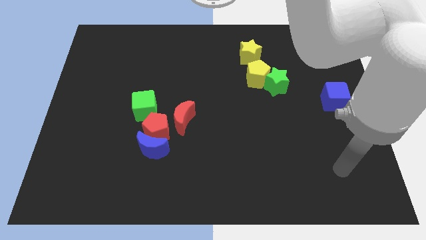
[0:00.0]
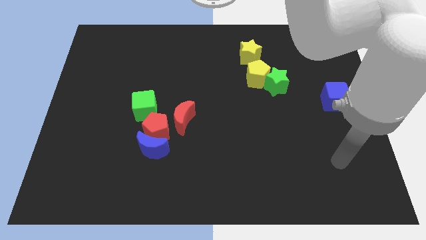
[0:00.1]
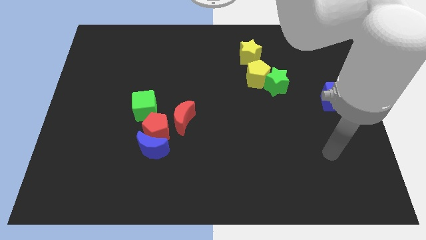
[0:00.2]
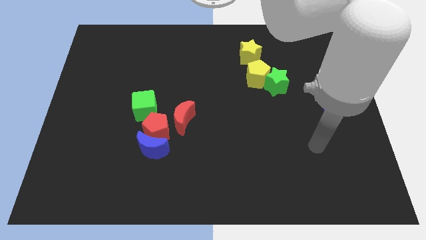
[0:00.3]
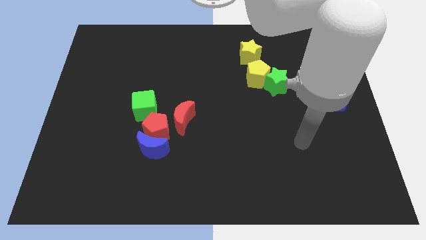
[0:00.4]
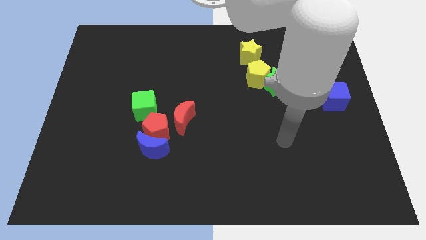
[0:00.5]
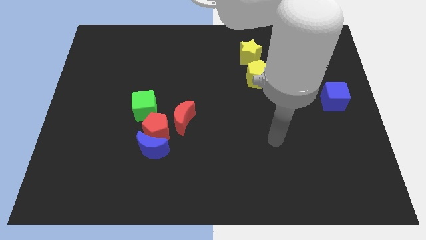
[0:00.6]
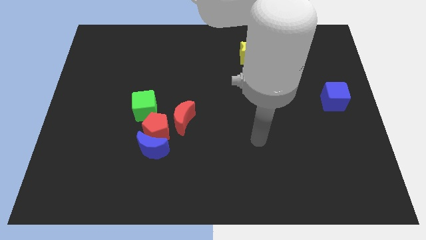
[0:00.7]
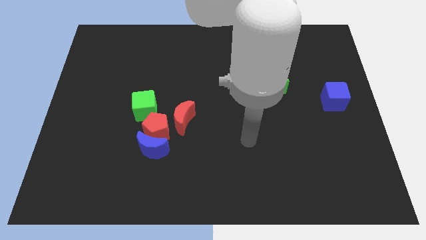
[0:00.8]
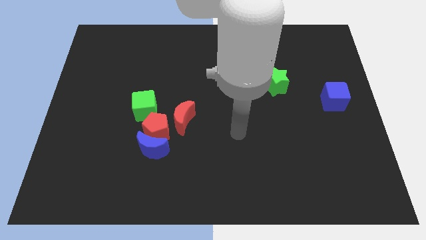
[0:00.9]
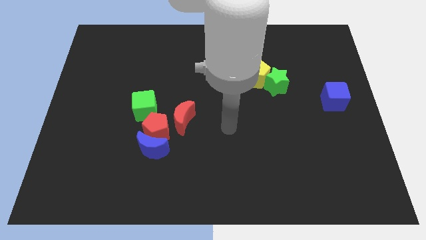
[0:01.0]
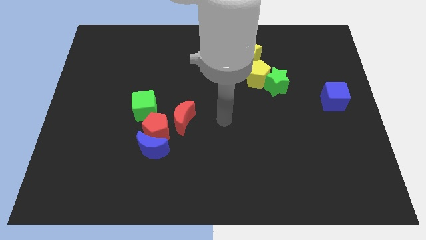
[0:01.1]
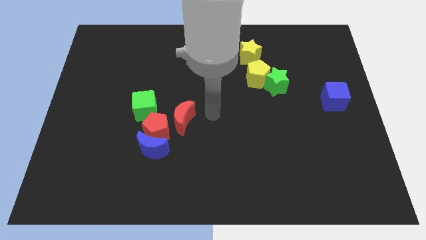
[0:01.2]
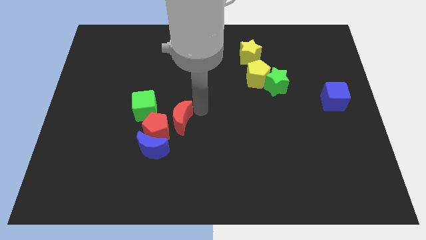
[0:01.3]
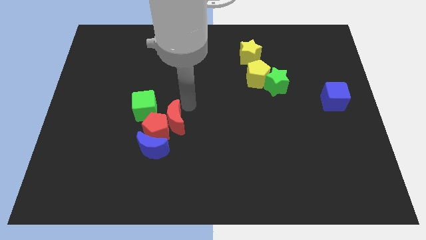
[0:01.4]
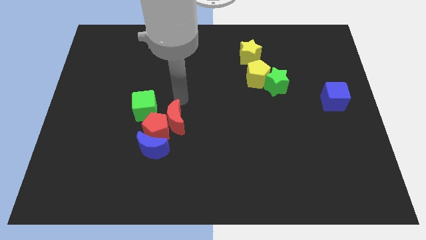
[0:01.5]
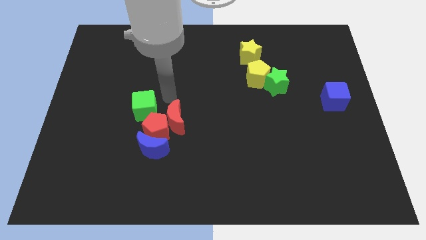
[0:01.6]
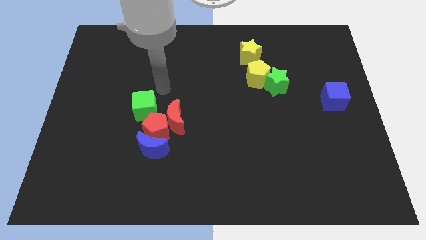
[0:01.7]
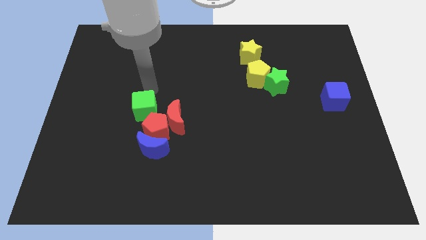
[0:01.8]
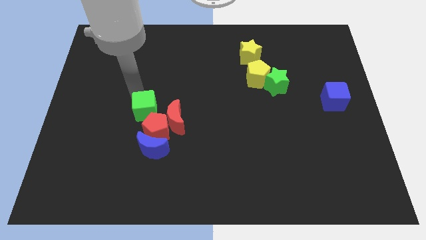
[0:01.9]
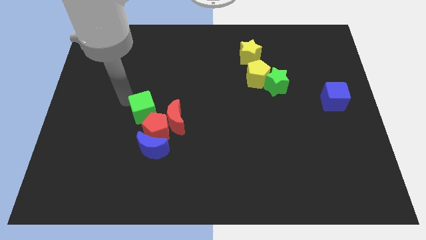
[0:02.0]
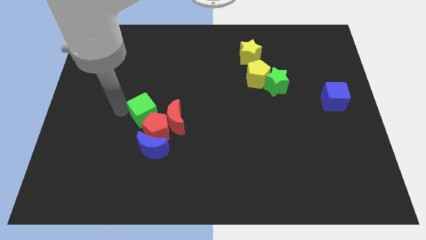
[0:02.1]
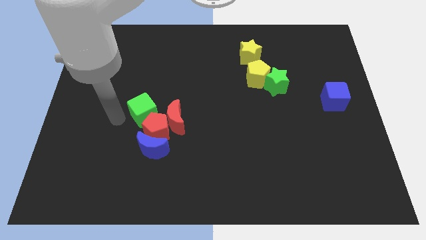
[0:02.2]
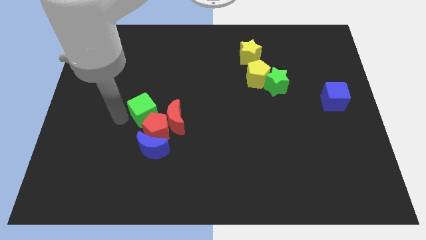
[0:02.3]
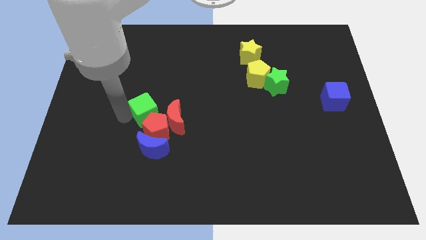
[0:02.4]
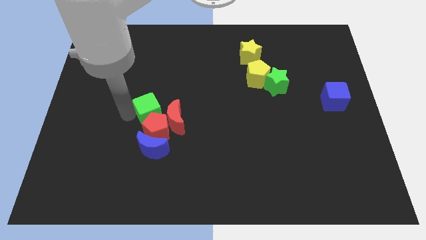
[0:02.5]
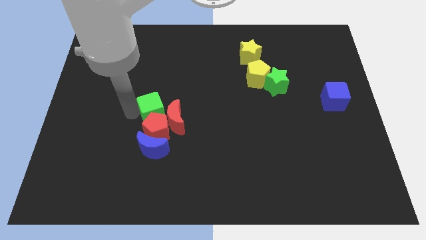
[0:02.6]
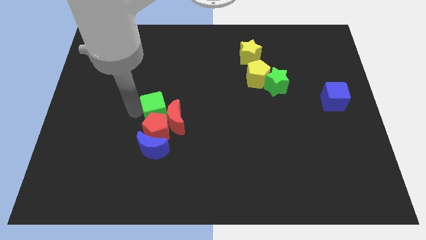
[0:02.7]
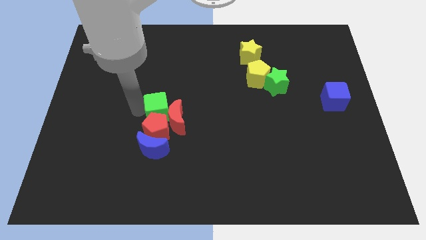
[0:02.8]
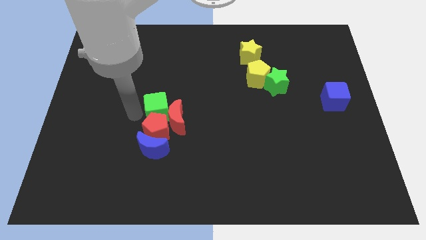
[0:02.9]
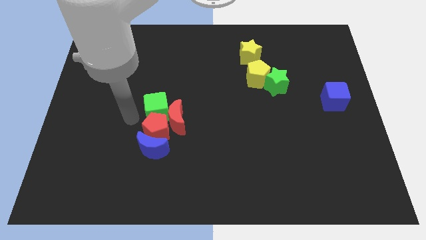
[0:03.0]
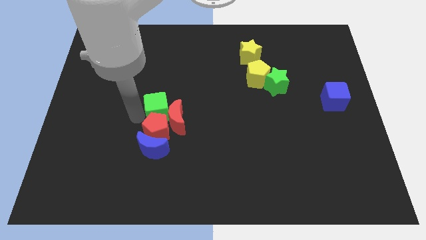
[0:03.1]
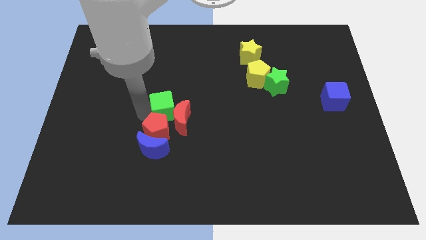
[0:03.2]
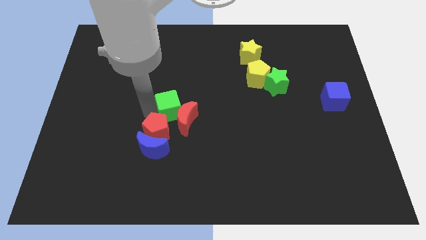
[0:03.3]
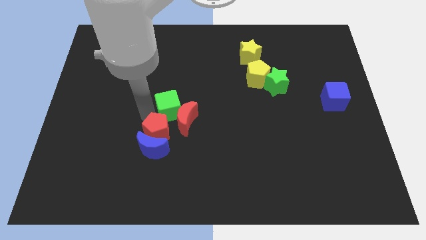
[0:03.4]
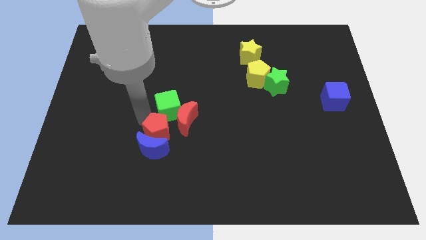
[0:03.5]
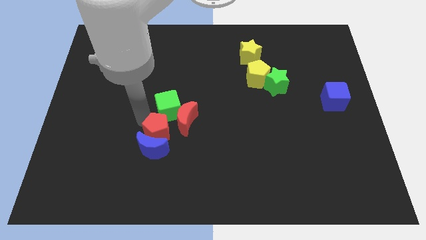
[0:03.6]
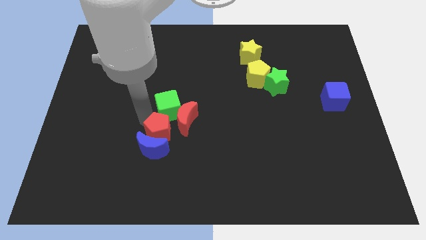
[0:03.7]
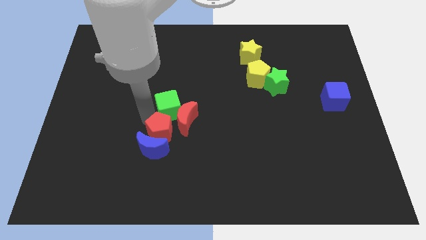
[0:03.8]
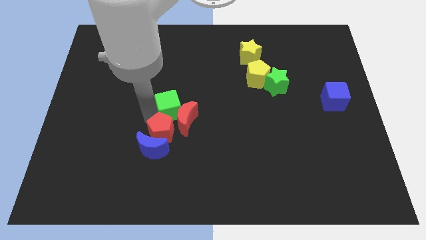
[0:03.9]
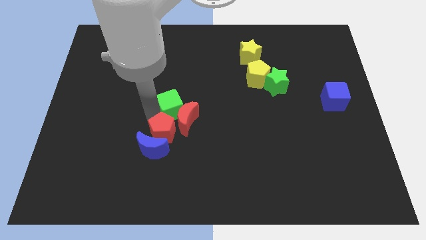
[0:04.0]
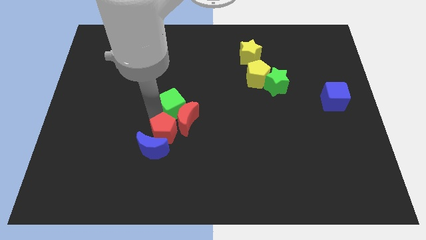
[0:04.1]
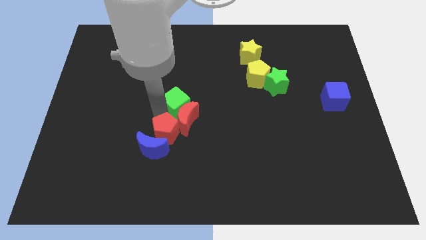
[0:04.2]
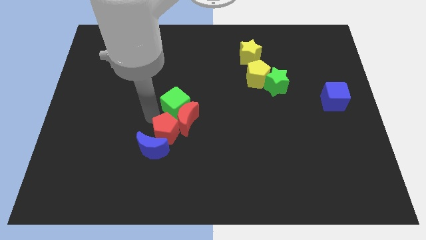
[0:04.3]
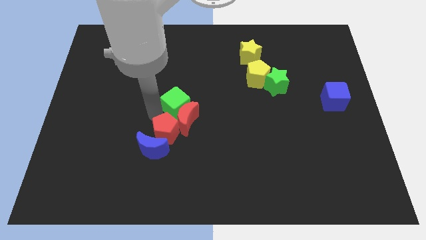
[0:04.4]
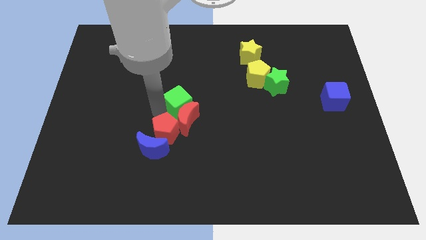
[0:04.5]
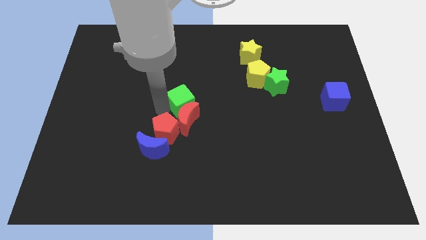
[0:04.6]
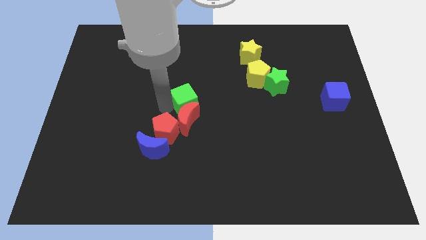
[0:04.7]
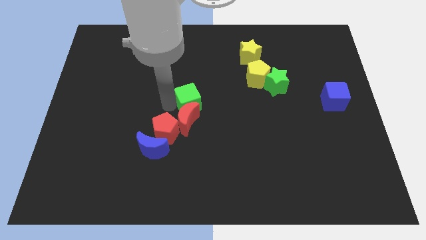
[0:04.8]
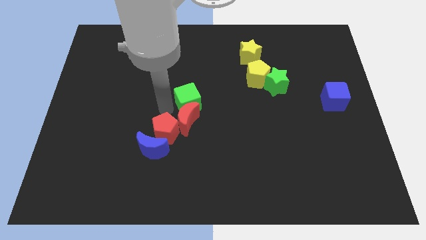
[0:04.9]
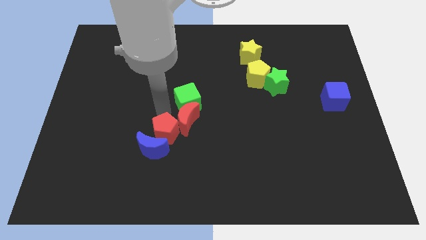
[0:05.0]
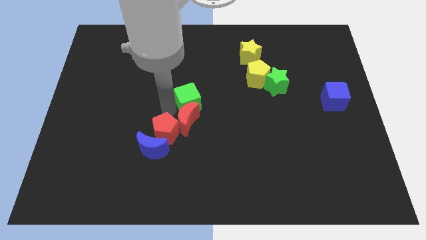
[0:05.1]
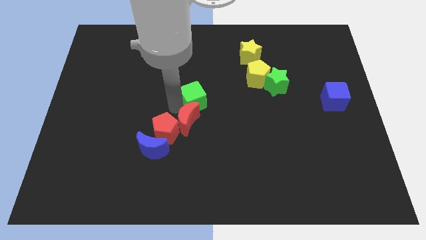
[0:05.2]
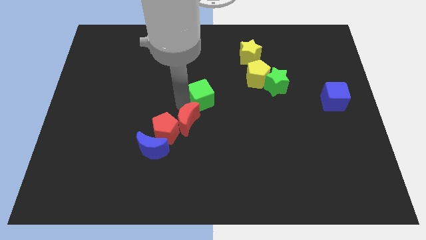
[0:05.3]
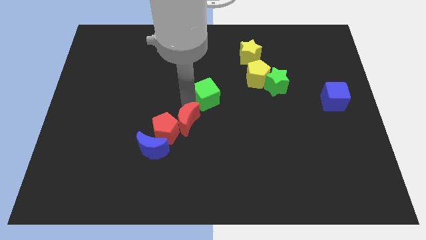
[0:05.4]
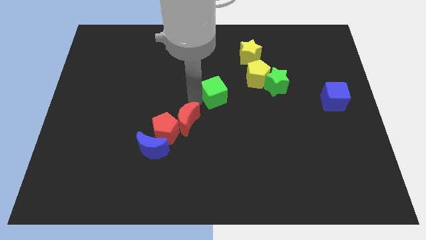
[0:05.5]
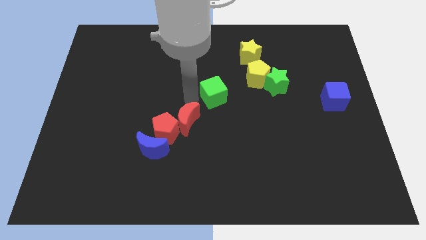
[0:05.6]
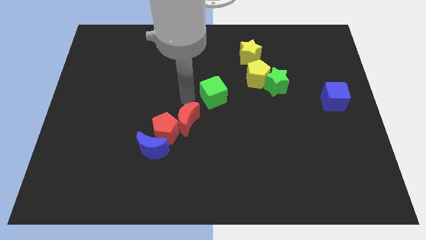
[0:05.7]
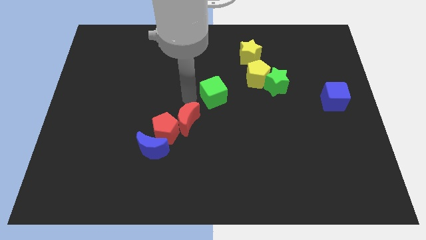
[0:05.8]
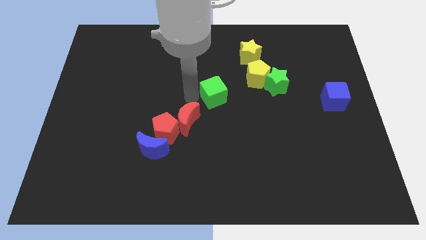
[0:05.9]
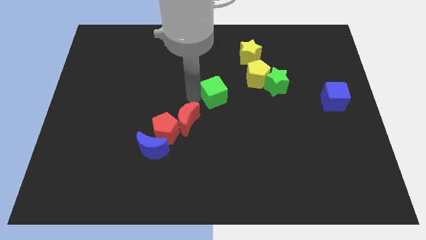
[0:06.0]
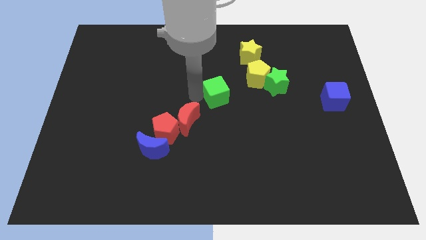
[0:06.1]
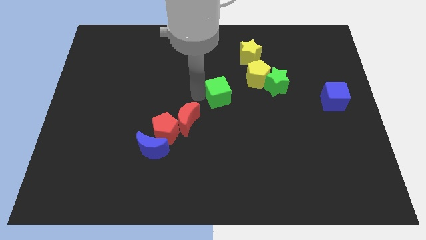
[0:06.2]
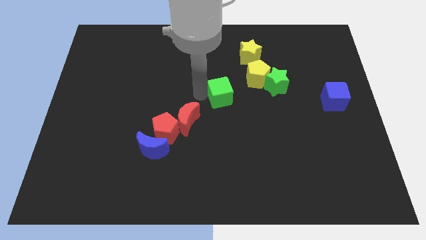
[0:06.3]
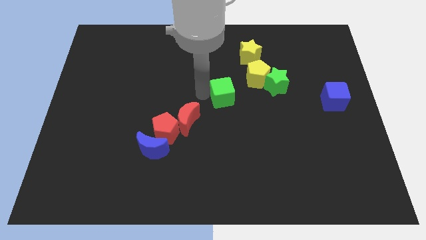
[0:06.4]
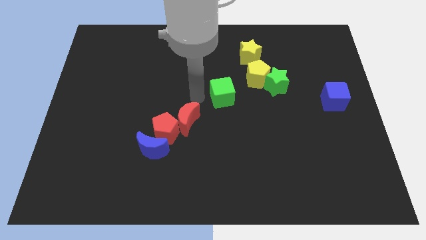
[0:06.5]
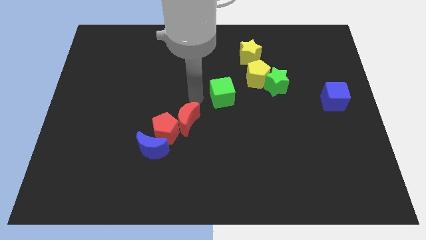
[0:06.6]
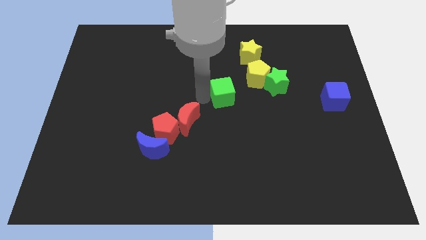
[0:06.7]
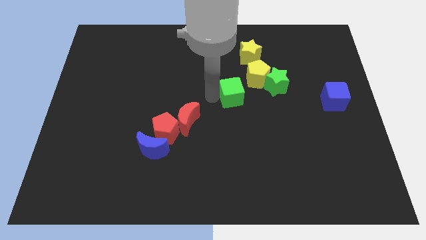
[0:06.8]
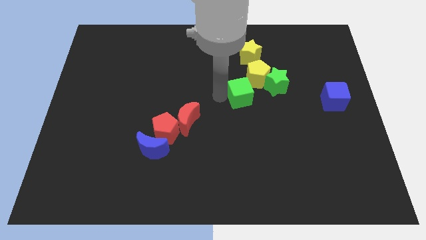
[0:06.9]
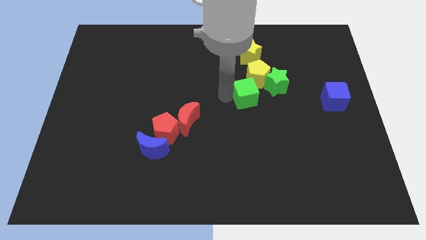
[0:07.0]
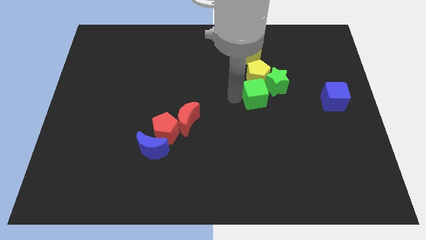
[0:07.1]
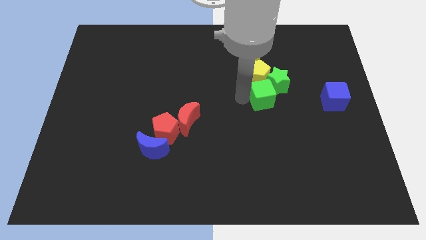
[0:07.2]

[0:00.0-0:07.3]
put the green cube towards the green star
